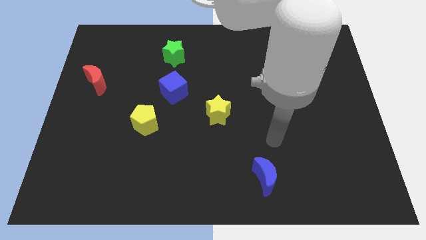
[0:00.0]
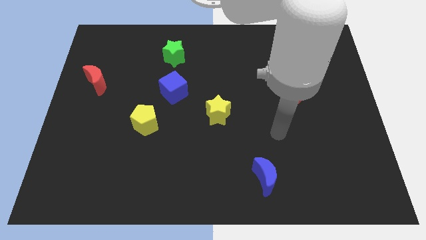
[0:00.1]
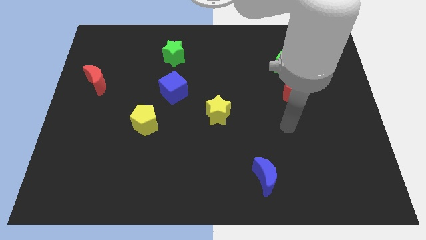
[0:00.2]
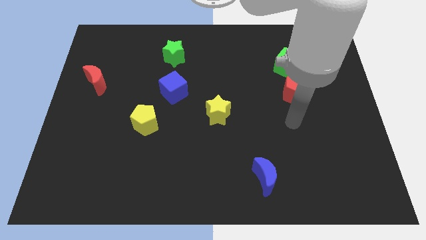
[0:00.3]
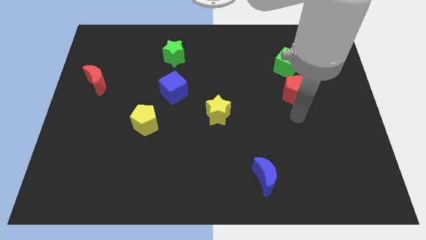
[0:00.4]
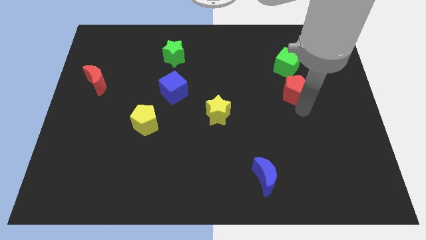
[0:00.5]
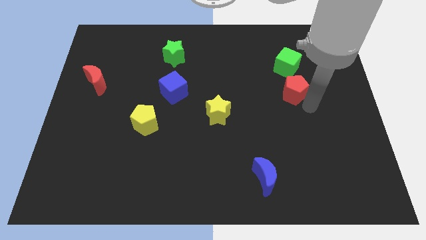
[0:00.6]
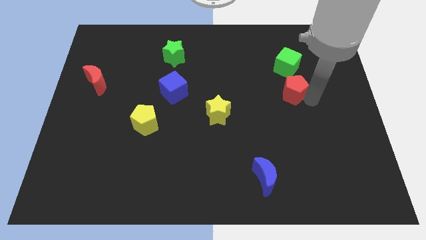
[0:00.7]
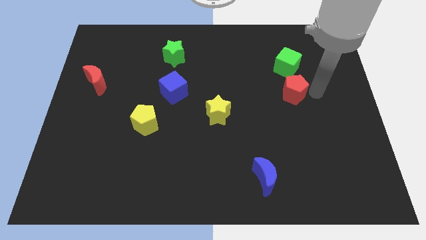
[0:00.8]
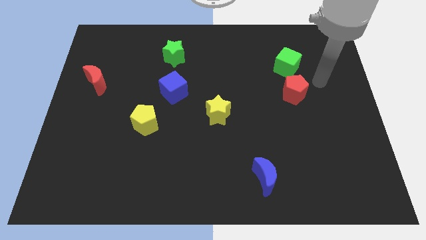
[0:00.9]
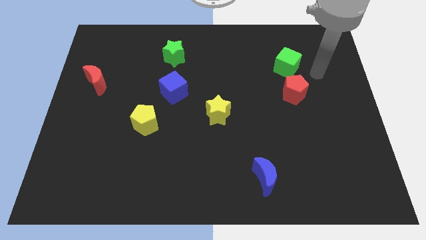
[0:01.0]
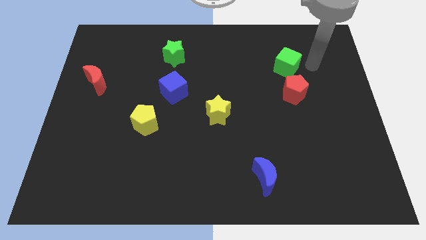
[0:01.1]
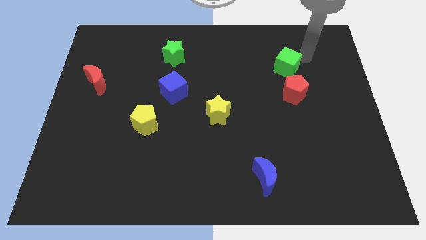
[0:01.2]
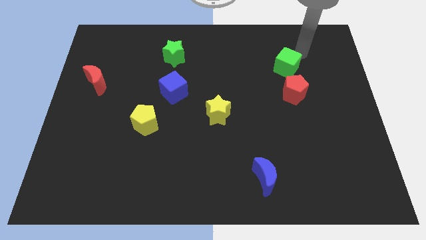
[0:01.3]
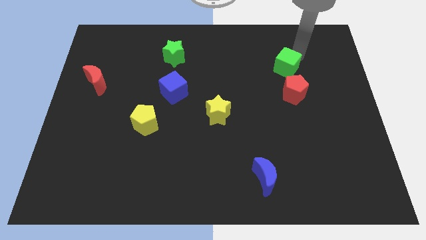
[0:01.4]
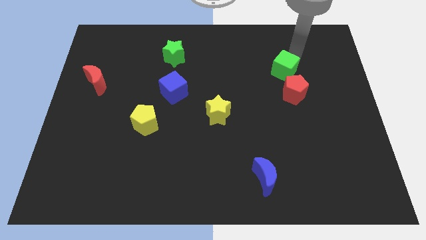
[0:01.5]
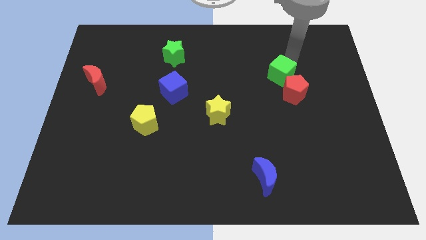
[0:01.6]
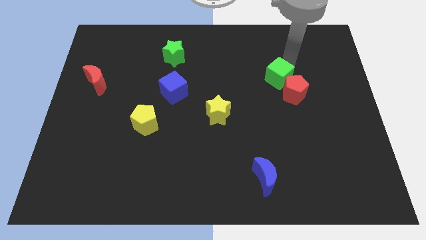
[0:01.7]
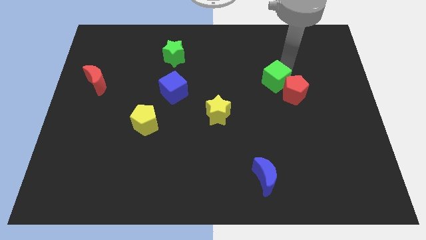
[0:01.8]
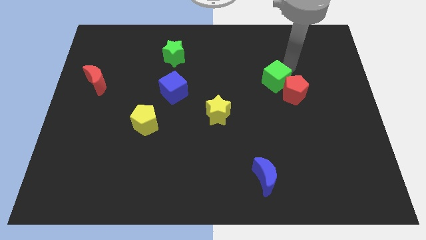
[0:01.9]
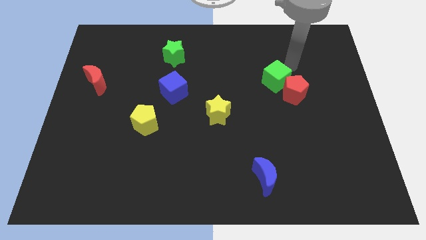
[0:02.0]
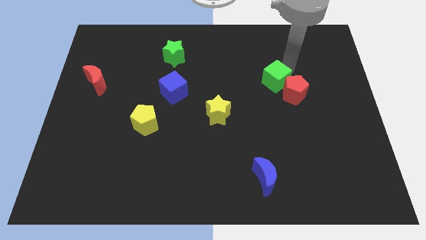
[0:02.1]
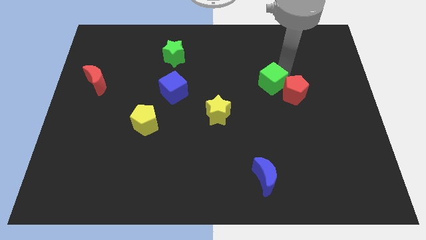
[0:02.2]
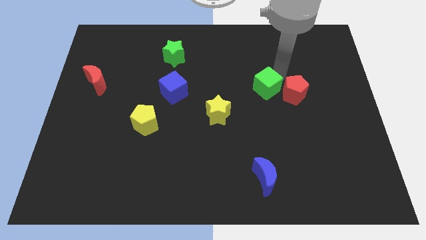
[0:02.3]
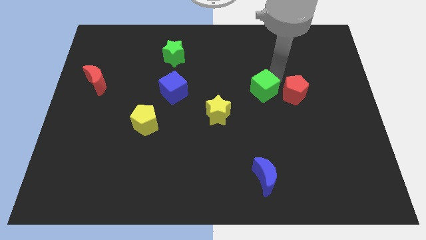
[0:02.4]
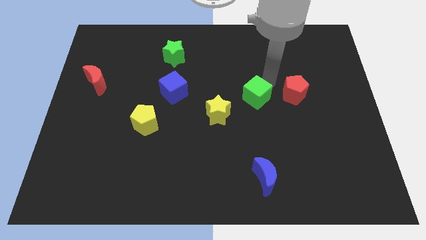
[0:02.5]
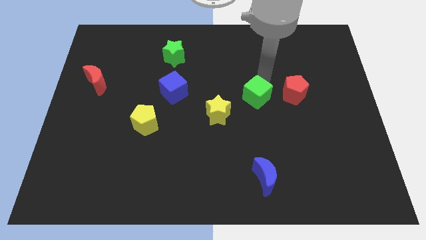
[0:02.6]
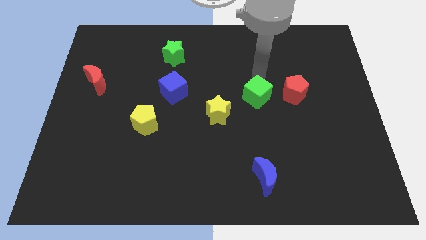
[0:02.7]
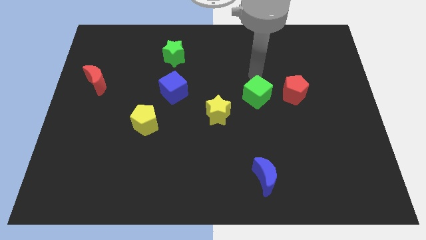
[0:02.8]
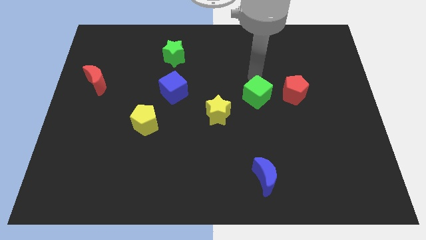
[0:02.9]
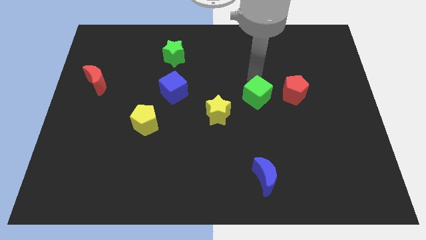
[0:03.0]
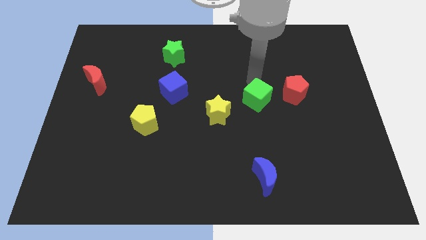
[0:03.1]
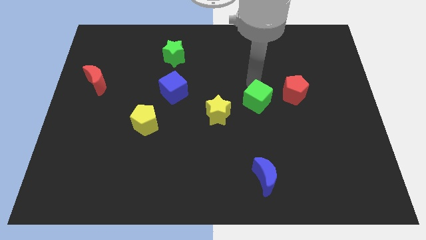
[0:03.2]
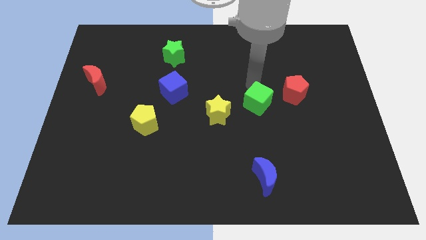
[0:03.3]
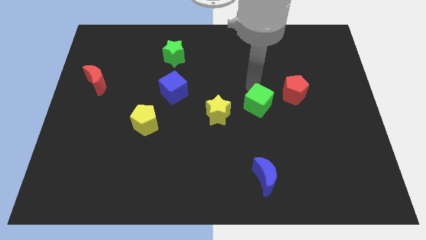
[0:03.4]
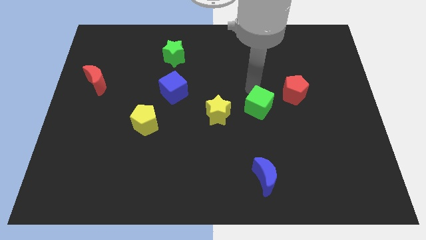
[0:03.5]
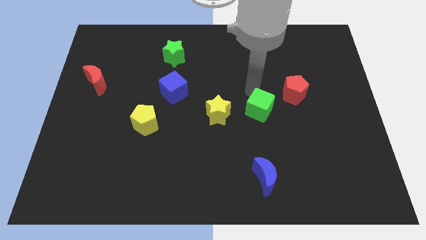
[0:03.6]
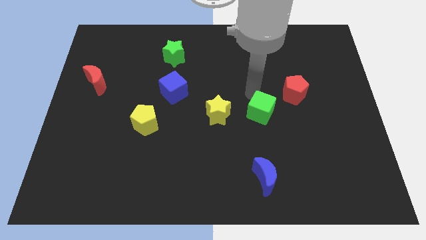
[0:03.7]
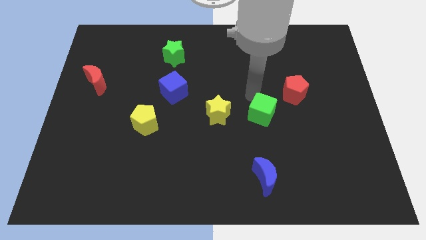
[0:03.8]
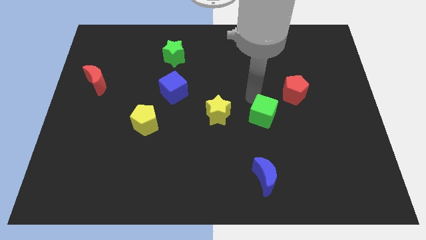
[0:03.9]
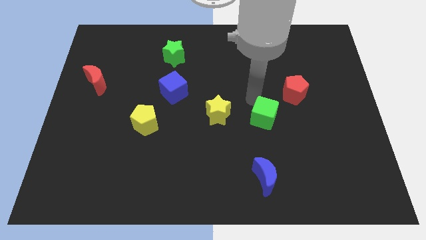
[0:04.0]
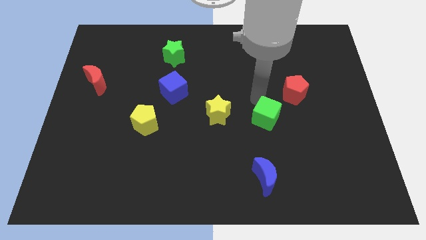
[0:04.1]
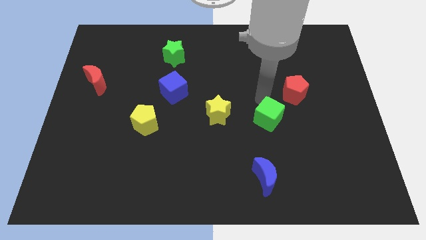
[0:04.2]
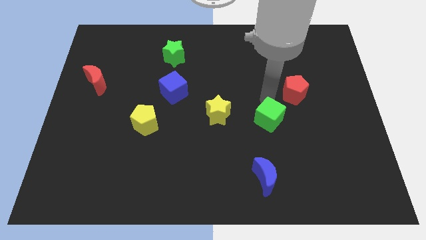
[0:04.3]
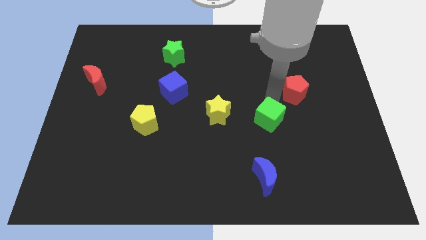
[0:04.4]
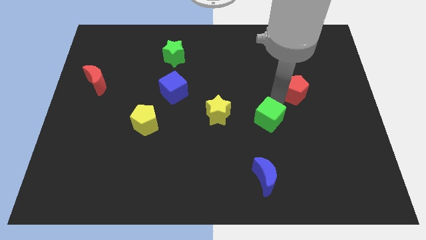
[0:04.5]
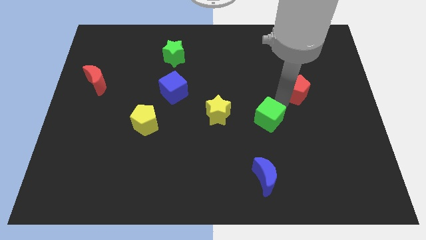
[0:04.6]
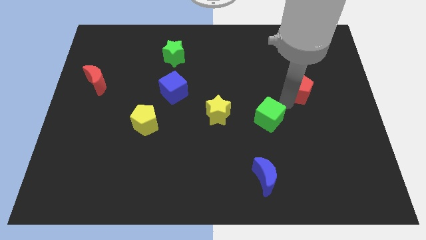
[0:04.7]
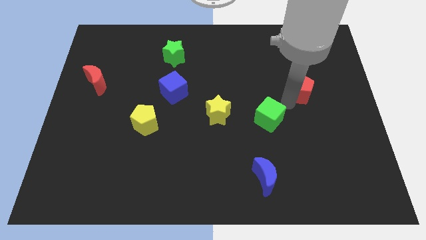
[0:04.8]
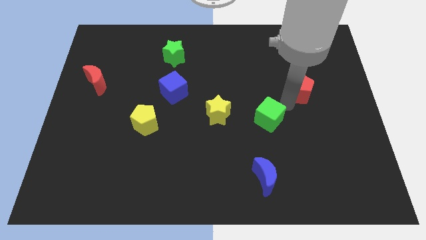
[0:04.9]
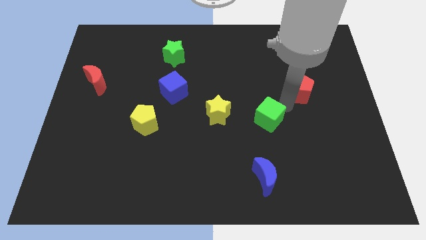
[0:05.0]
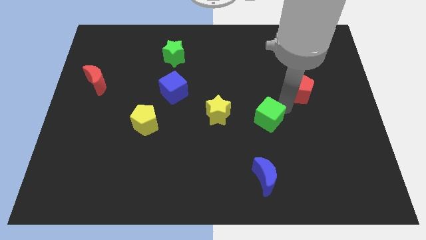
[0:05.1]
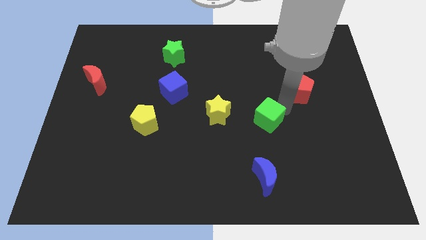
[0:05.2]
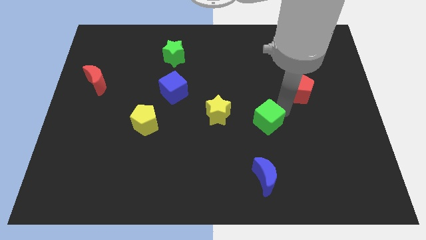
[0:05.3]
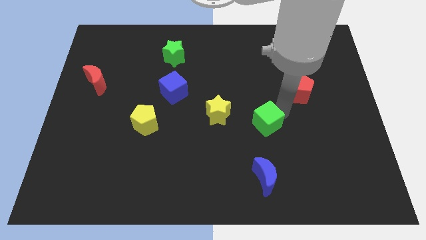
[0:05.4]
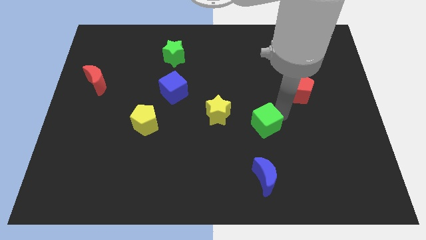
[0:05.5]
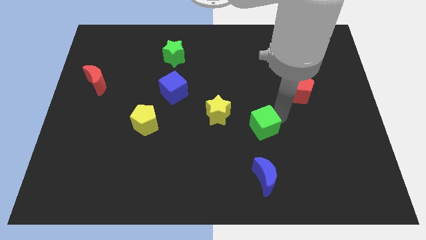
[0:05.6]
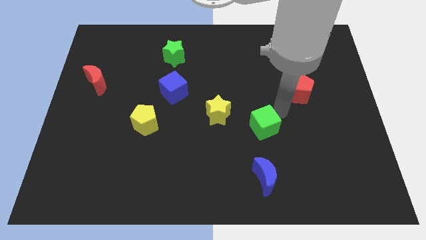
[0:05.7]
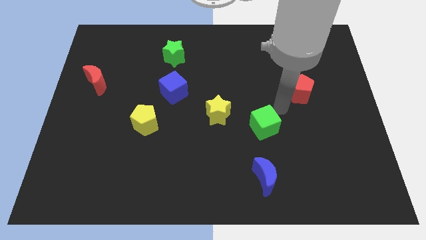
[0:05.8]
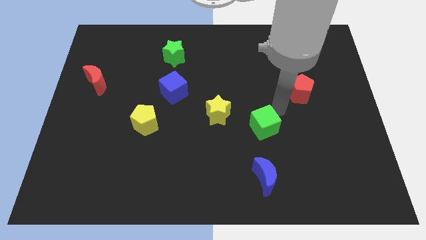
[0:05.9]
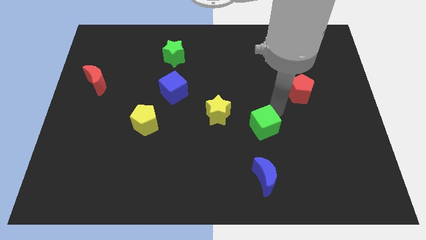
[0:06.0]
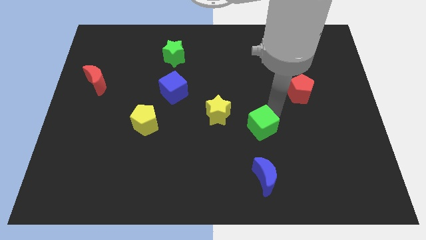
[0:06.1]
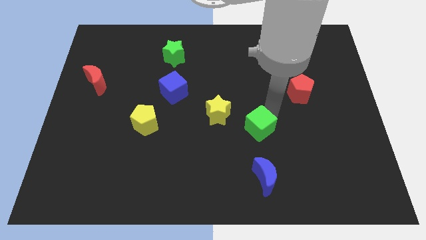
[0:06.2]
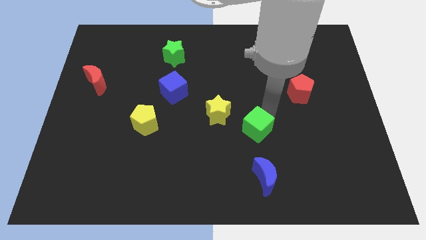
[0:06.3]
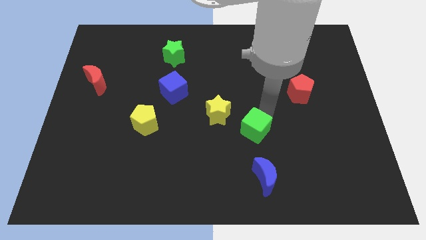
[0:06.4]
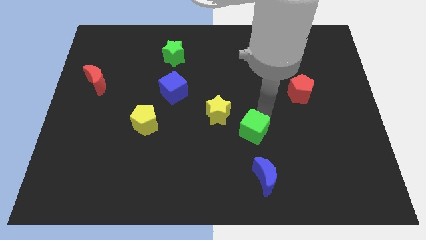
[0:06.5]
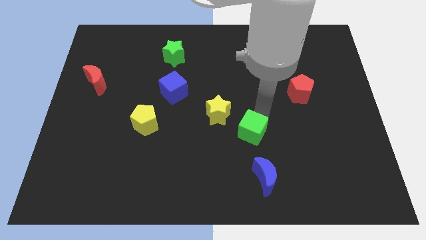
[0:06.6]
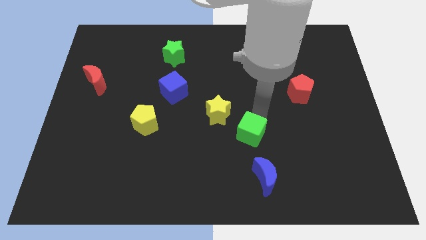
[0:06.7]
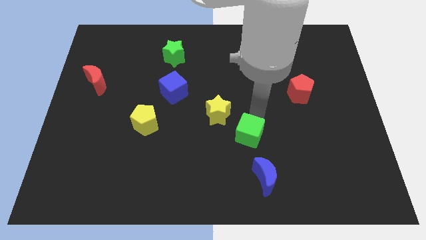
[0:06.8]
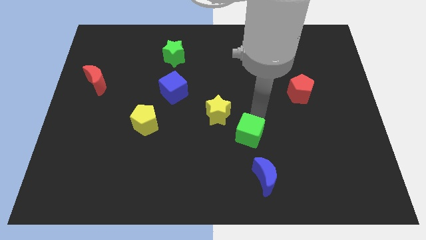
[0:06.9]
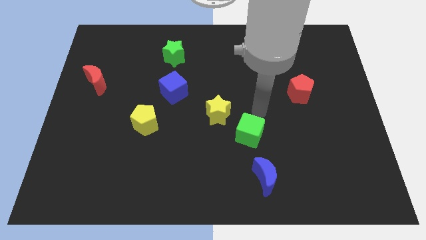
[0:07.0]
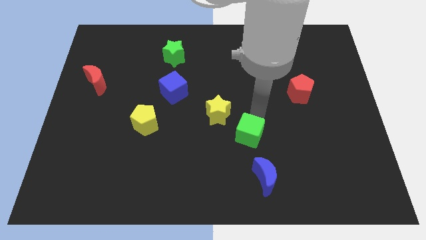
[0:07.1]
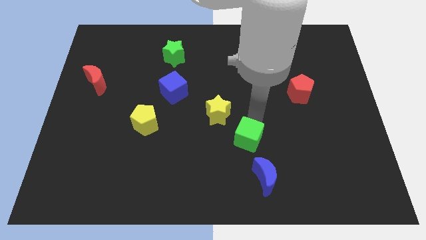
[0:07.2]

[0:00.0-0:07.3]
slide the green cube to the top left side of the blue moon
